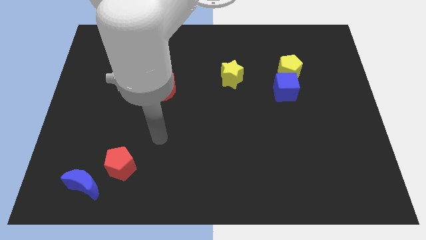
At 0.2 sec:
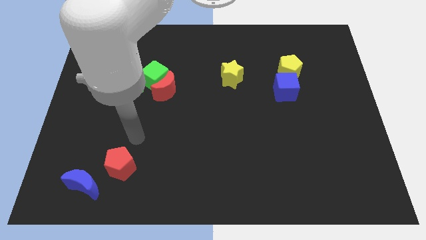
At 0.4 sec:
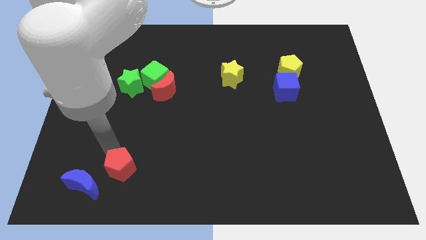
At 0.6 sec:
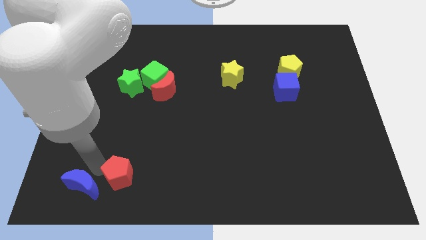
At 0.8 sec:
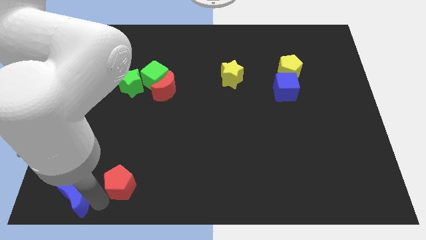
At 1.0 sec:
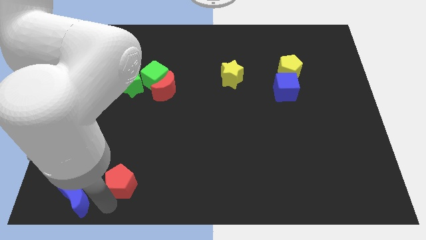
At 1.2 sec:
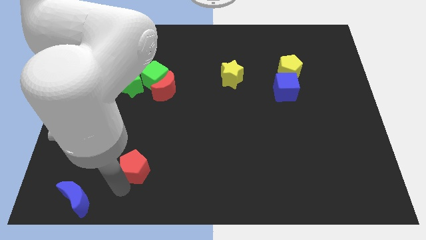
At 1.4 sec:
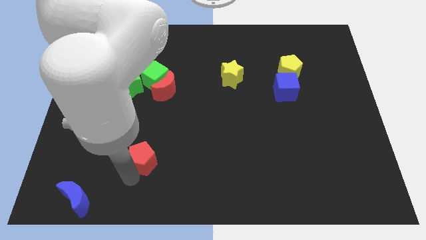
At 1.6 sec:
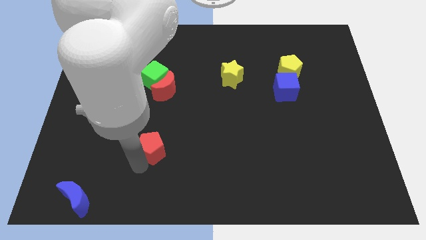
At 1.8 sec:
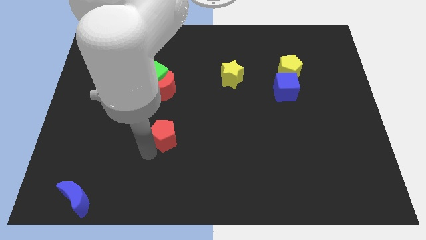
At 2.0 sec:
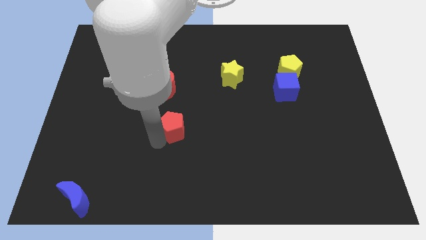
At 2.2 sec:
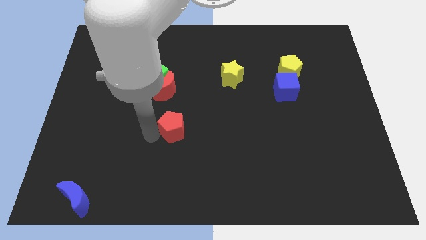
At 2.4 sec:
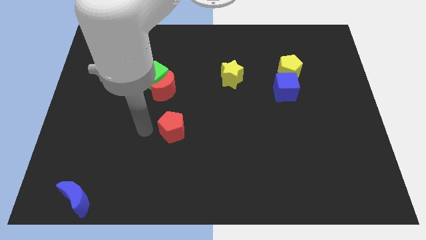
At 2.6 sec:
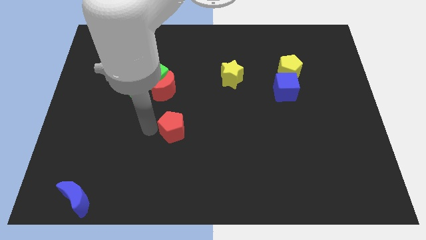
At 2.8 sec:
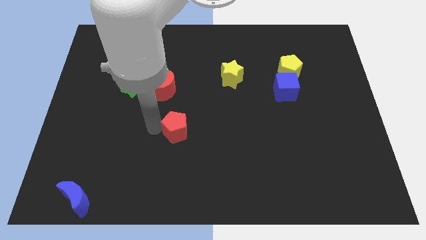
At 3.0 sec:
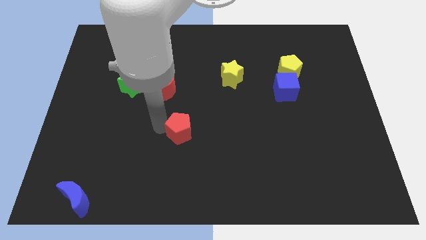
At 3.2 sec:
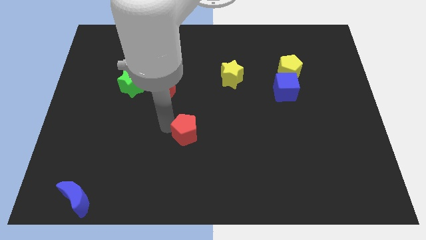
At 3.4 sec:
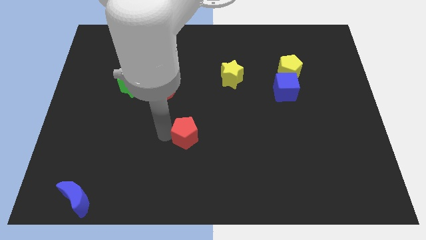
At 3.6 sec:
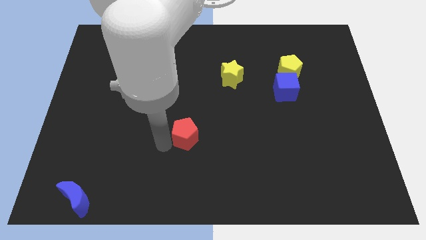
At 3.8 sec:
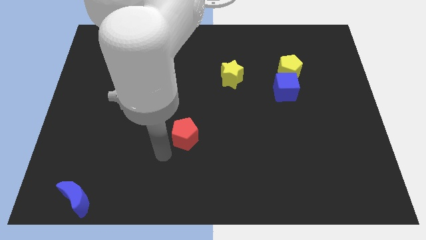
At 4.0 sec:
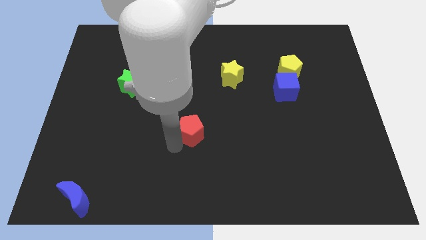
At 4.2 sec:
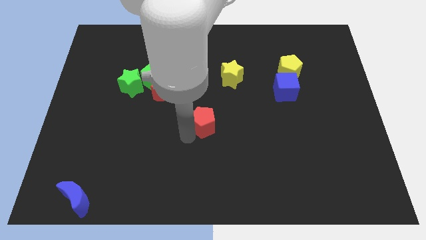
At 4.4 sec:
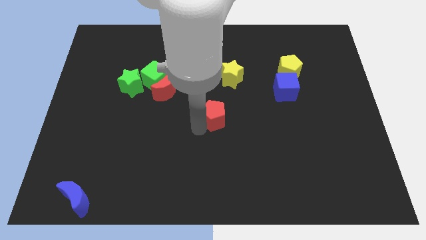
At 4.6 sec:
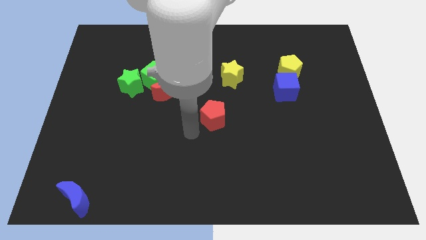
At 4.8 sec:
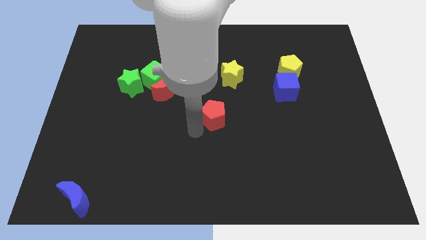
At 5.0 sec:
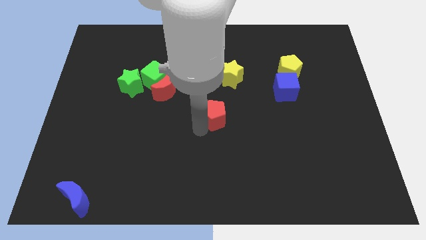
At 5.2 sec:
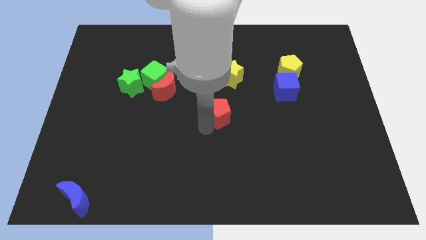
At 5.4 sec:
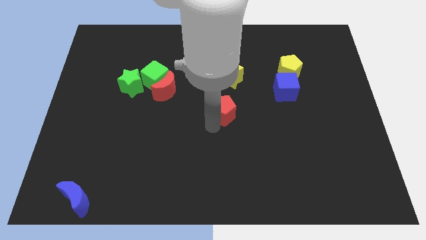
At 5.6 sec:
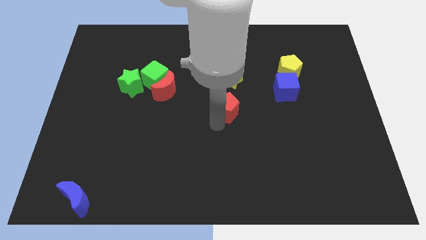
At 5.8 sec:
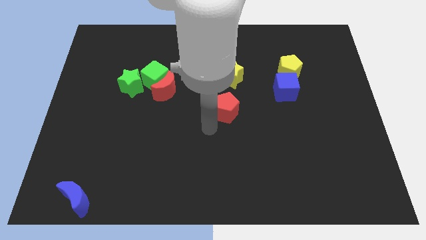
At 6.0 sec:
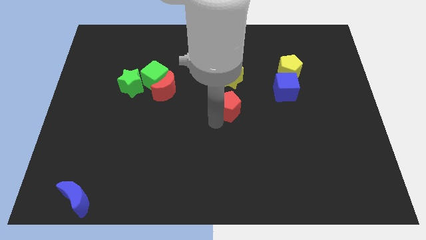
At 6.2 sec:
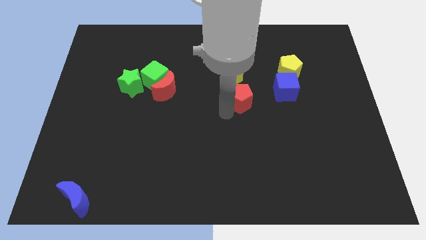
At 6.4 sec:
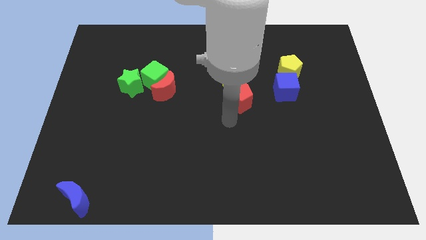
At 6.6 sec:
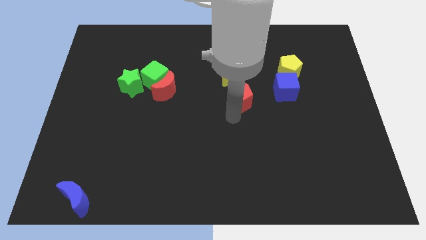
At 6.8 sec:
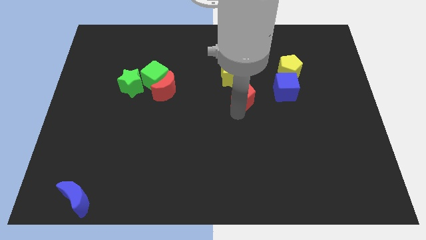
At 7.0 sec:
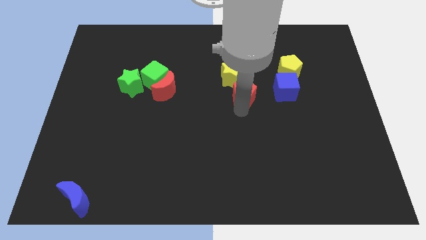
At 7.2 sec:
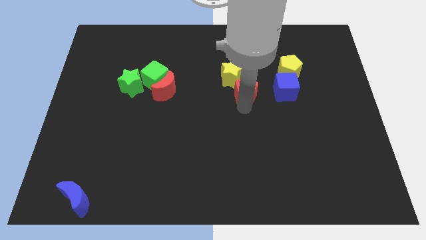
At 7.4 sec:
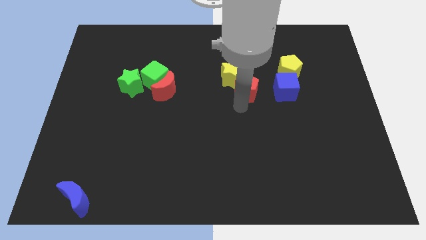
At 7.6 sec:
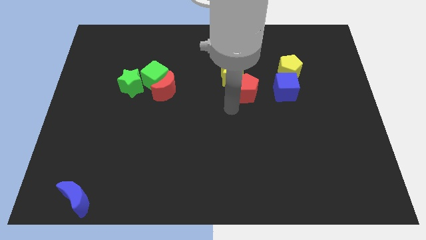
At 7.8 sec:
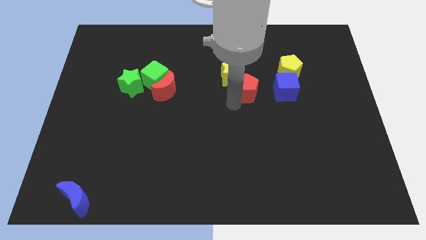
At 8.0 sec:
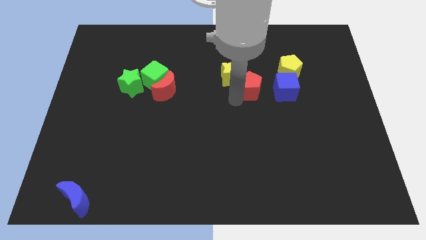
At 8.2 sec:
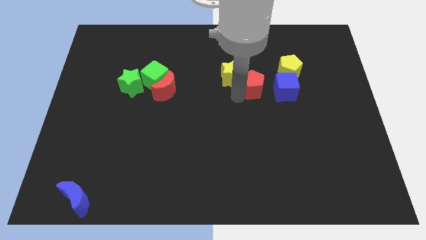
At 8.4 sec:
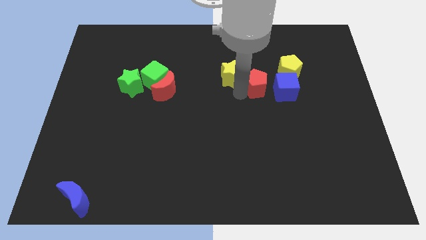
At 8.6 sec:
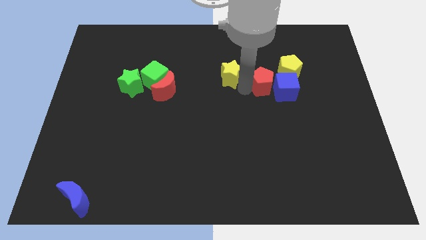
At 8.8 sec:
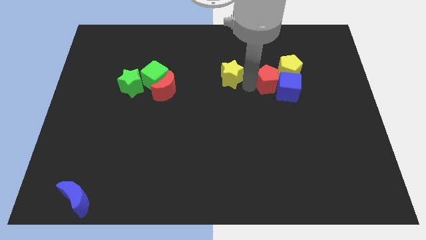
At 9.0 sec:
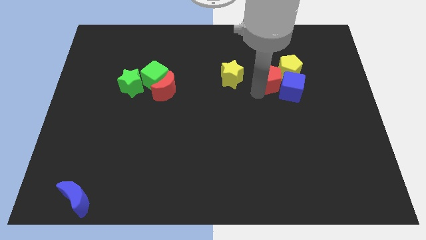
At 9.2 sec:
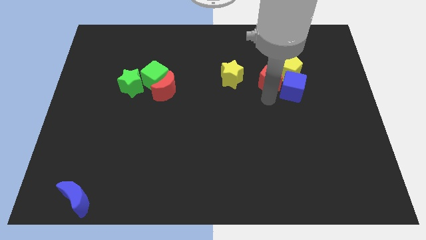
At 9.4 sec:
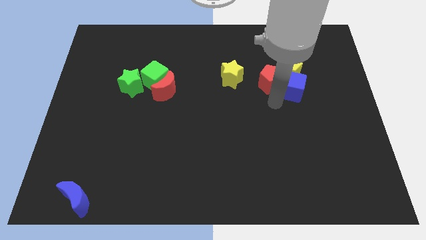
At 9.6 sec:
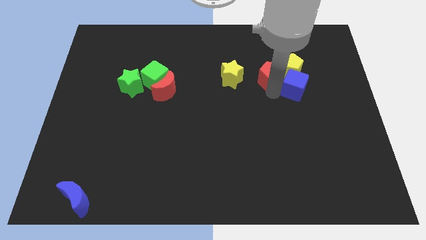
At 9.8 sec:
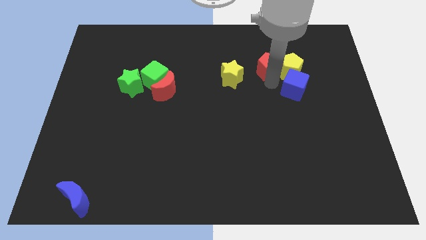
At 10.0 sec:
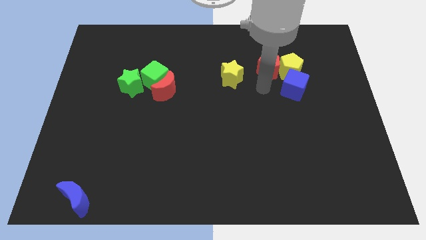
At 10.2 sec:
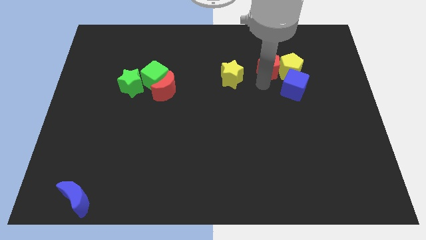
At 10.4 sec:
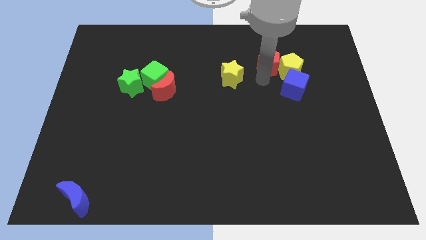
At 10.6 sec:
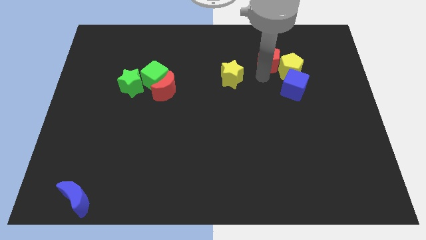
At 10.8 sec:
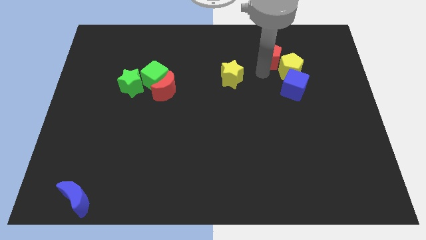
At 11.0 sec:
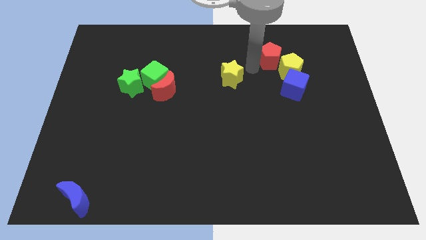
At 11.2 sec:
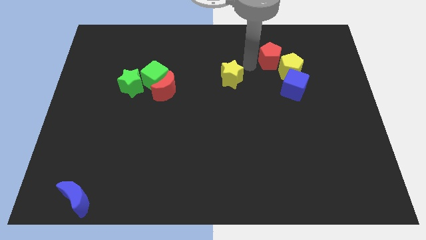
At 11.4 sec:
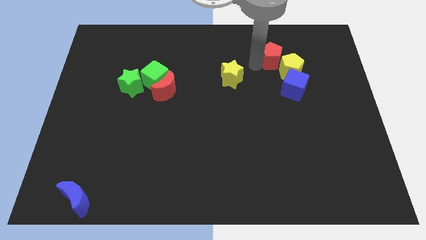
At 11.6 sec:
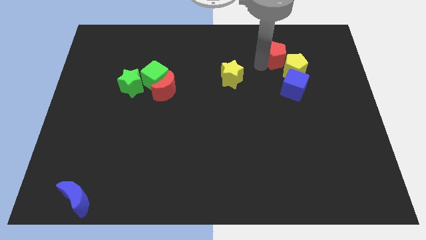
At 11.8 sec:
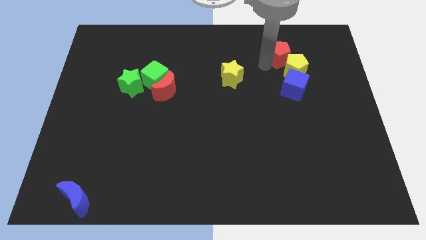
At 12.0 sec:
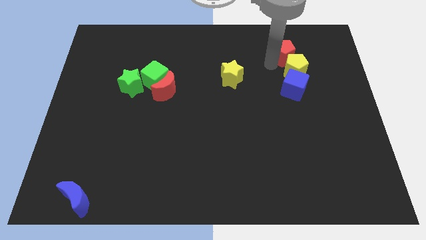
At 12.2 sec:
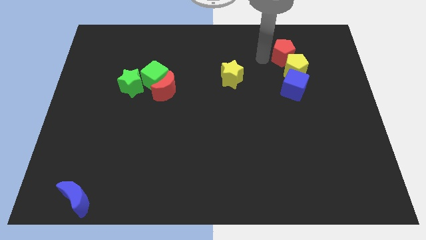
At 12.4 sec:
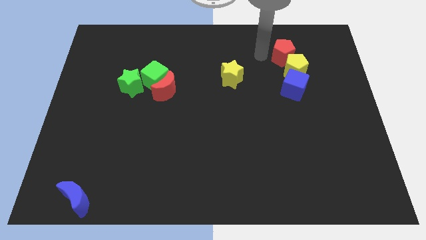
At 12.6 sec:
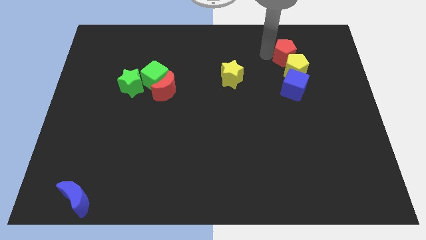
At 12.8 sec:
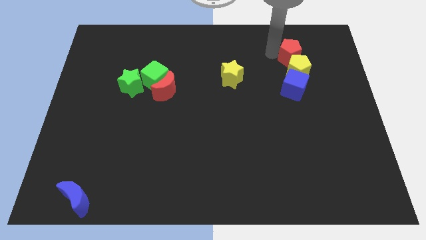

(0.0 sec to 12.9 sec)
slide the red pentagon to the top right side of the yellow pentagon
